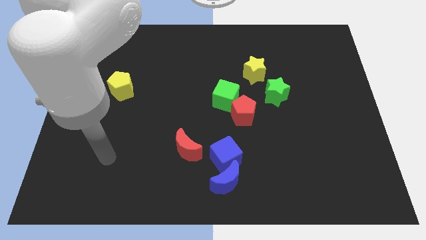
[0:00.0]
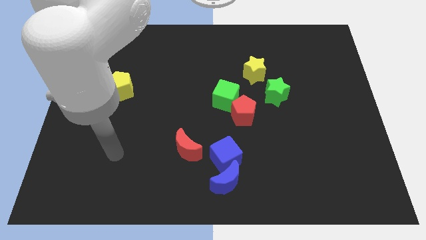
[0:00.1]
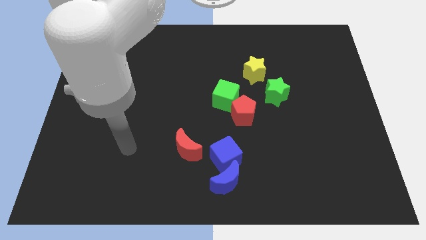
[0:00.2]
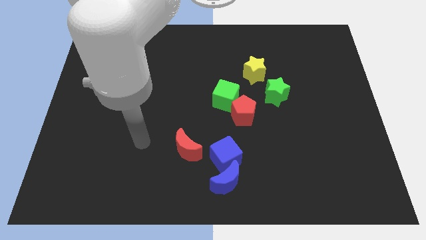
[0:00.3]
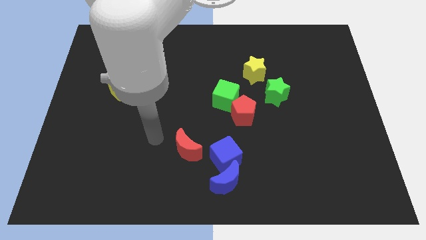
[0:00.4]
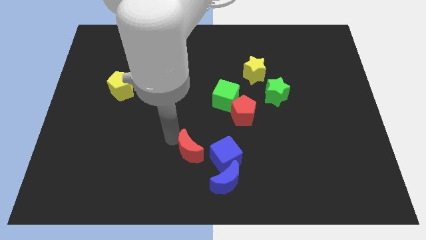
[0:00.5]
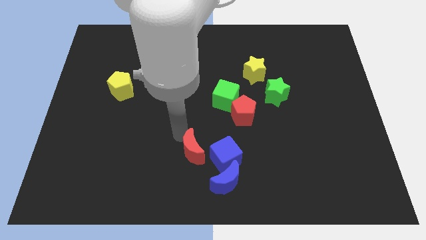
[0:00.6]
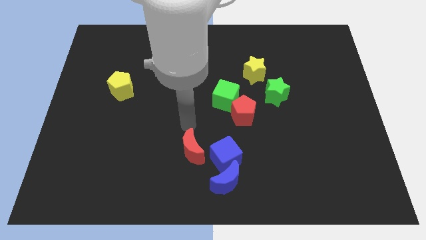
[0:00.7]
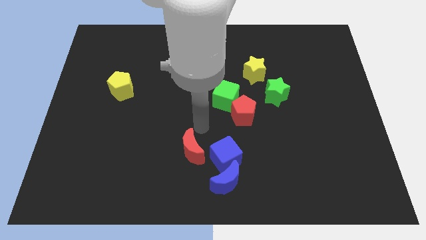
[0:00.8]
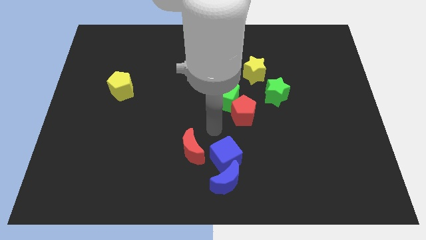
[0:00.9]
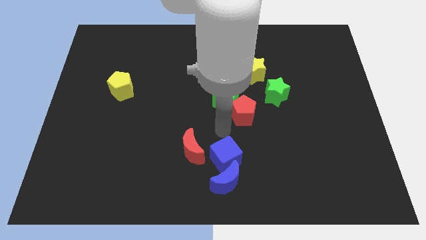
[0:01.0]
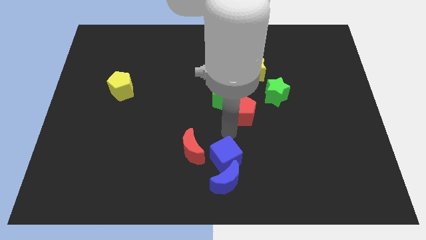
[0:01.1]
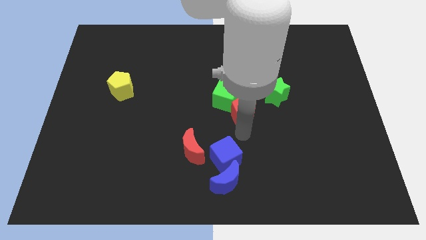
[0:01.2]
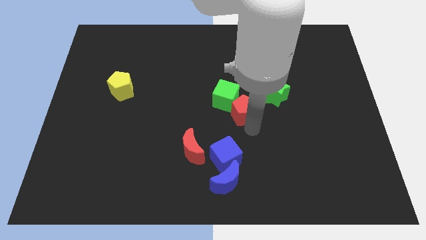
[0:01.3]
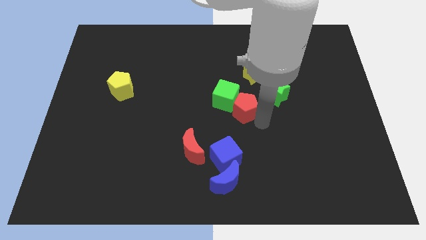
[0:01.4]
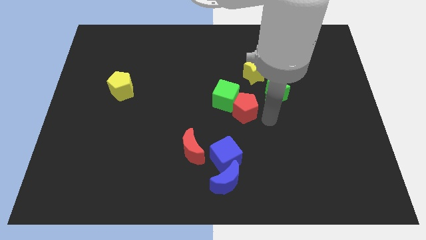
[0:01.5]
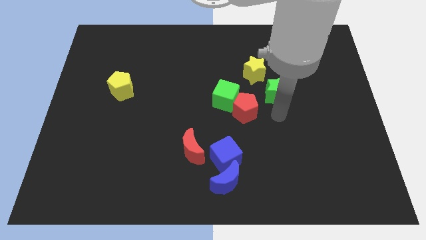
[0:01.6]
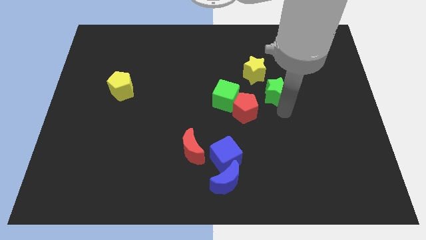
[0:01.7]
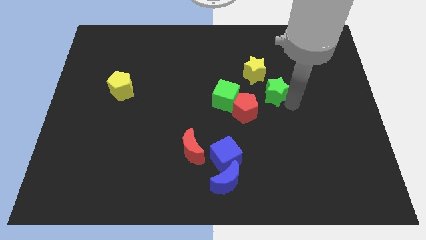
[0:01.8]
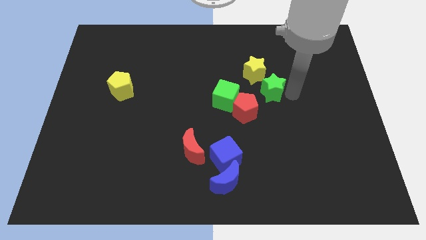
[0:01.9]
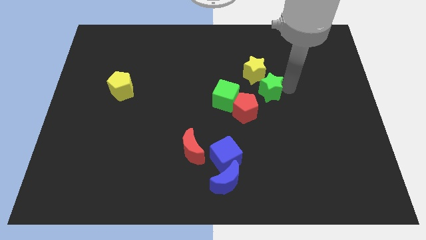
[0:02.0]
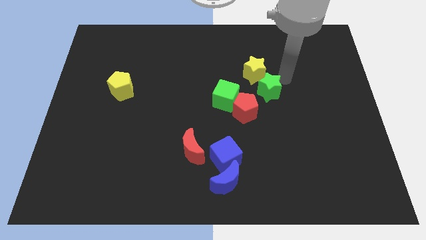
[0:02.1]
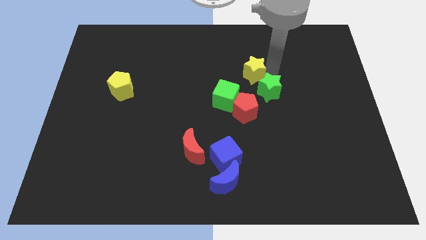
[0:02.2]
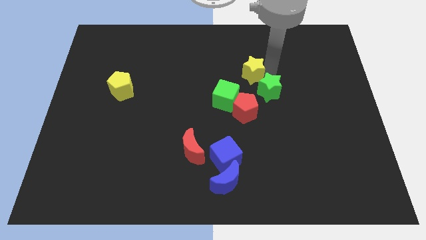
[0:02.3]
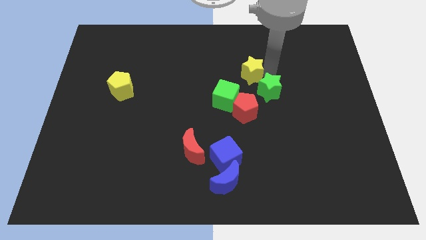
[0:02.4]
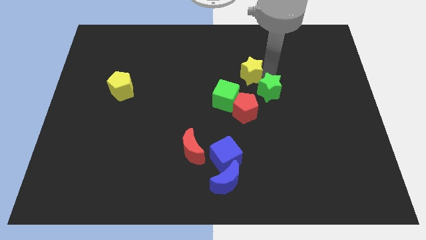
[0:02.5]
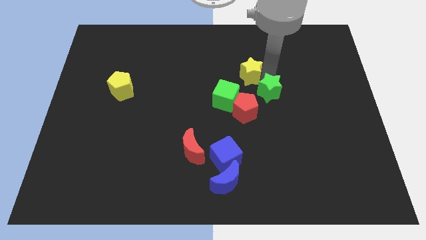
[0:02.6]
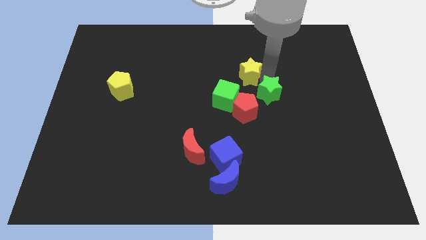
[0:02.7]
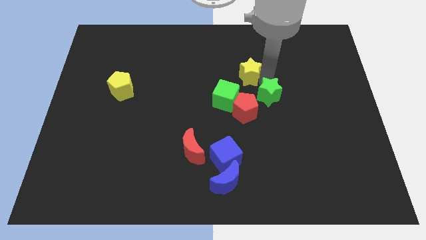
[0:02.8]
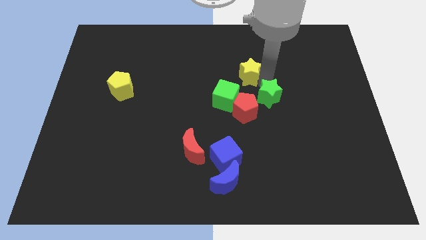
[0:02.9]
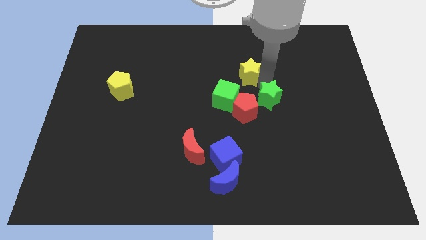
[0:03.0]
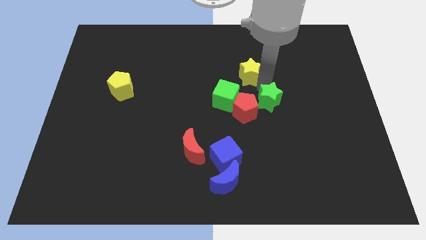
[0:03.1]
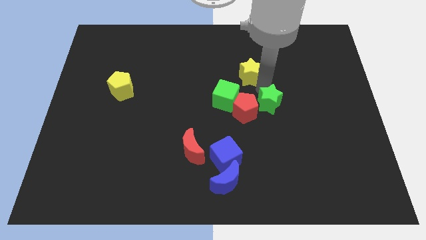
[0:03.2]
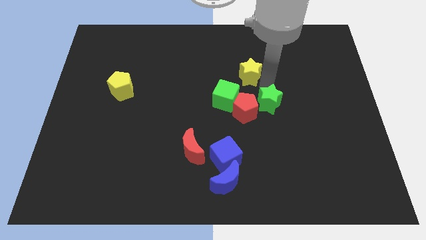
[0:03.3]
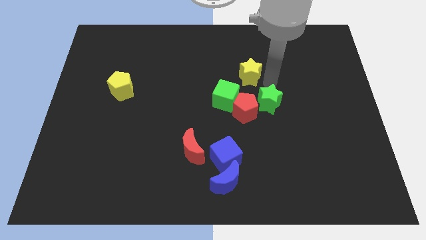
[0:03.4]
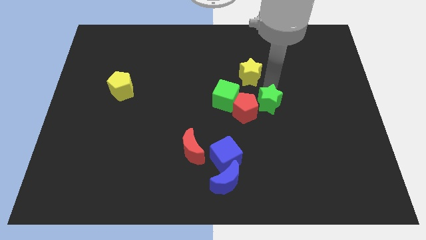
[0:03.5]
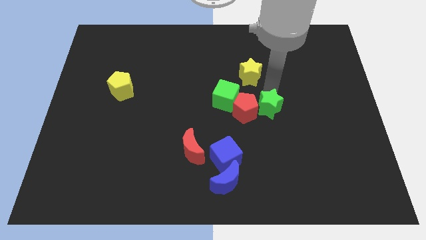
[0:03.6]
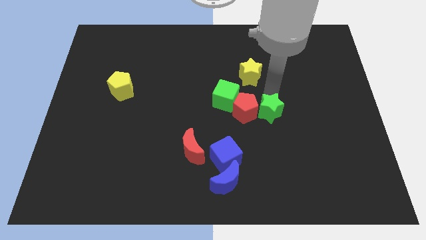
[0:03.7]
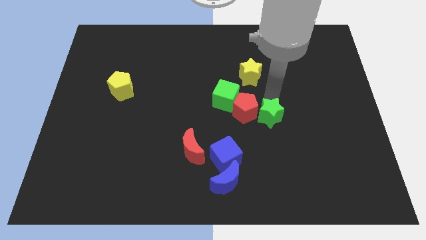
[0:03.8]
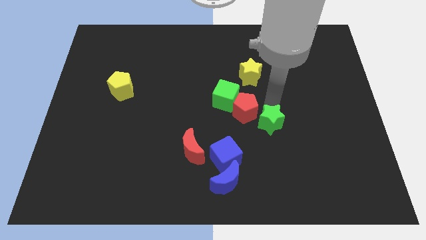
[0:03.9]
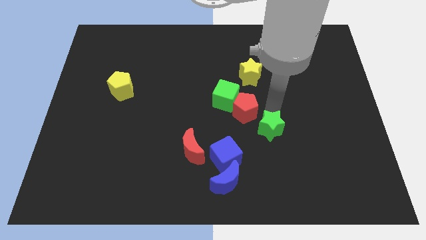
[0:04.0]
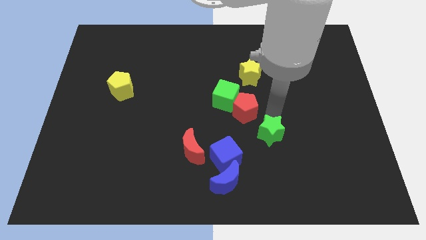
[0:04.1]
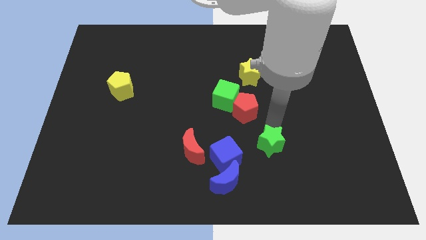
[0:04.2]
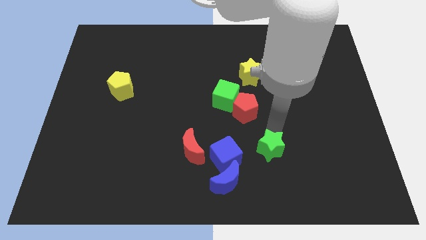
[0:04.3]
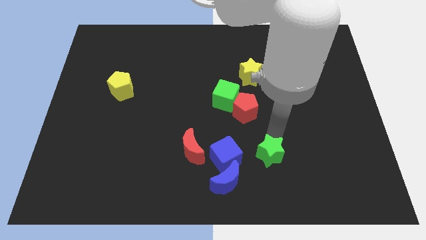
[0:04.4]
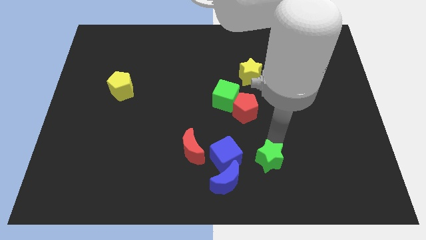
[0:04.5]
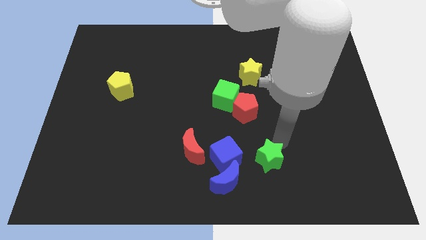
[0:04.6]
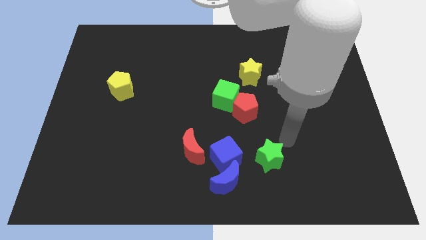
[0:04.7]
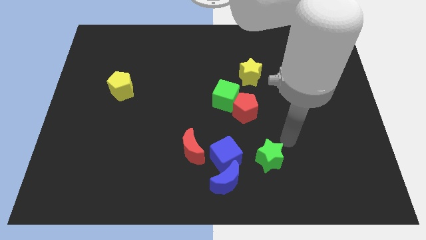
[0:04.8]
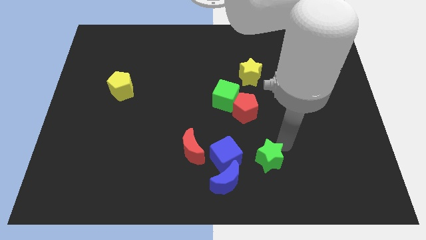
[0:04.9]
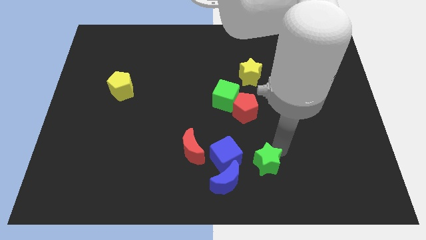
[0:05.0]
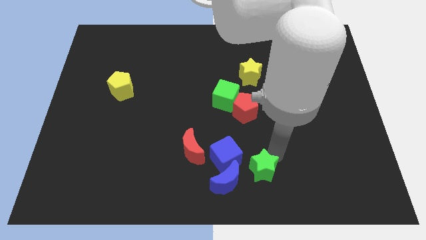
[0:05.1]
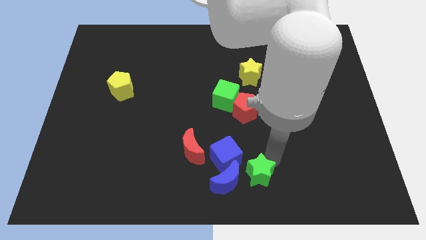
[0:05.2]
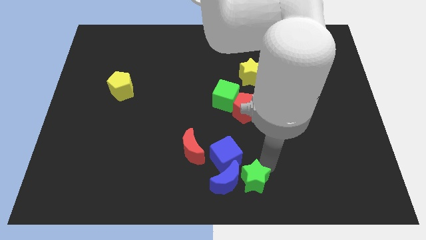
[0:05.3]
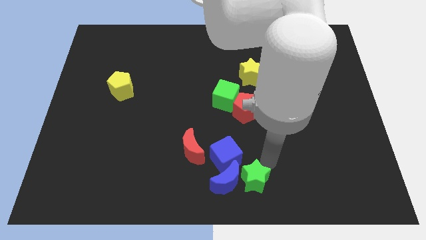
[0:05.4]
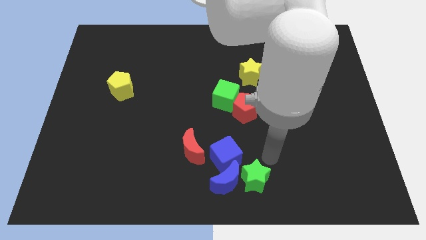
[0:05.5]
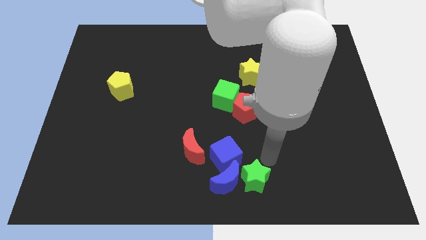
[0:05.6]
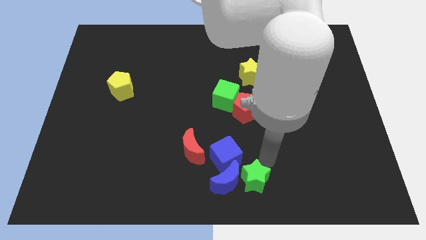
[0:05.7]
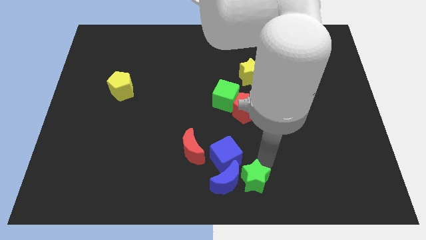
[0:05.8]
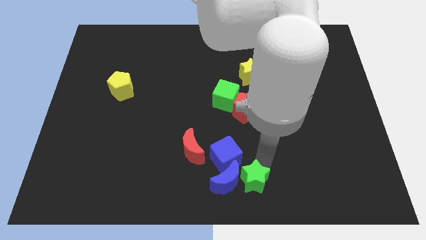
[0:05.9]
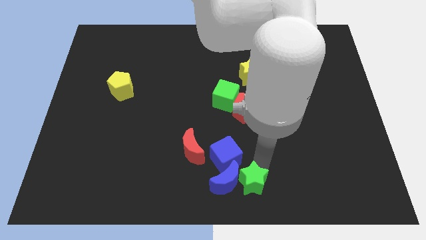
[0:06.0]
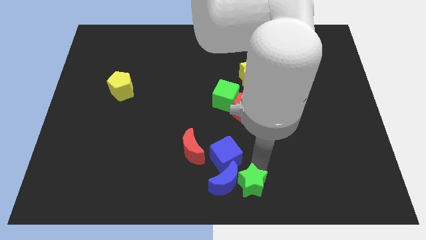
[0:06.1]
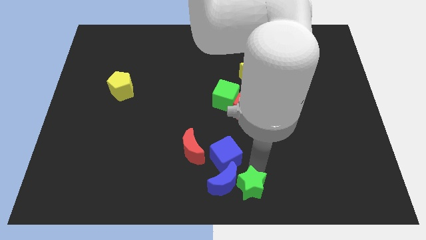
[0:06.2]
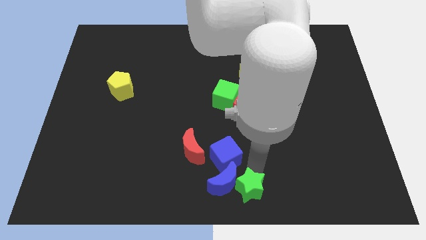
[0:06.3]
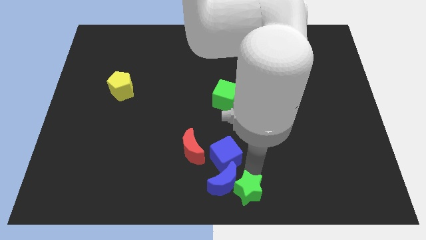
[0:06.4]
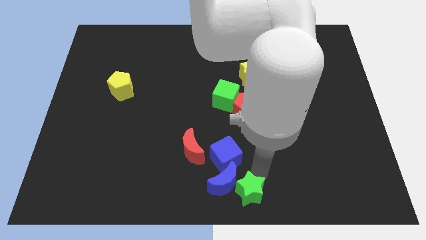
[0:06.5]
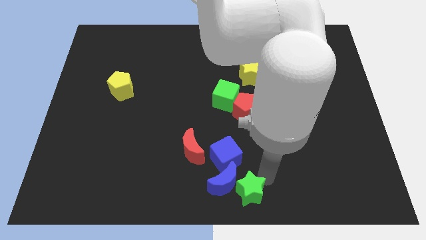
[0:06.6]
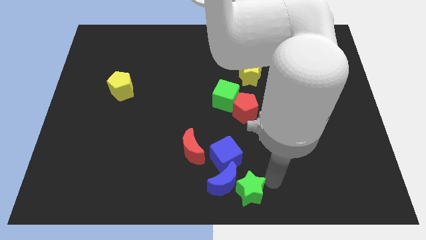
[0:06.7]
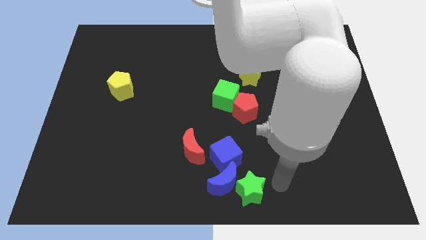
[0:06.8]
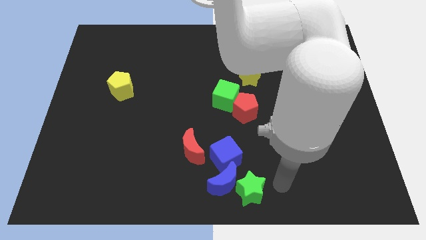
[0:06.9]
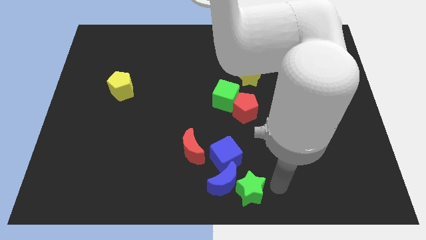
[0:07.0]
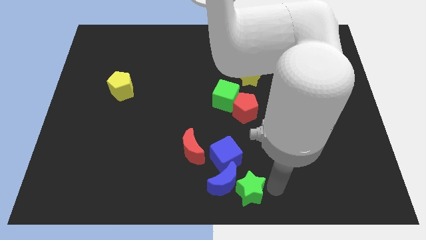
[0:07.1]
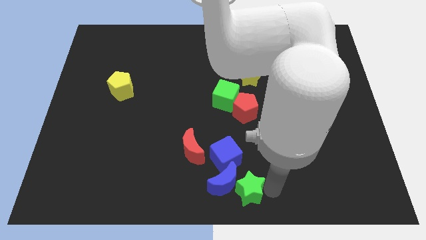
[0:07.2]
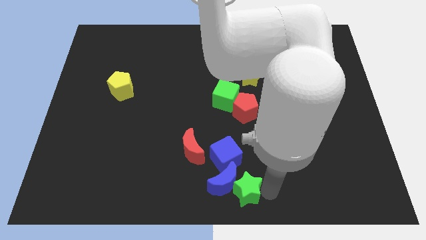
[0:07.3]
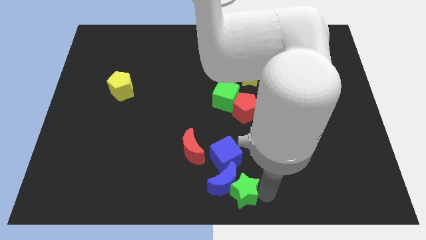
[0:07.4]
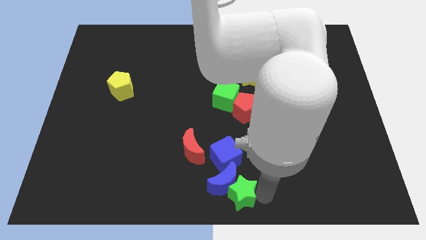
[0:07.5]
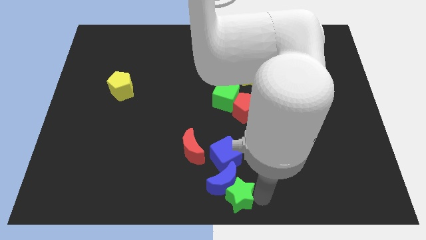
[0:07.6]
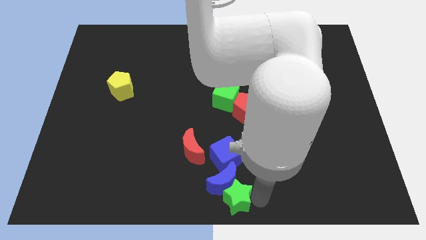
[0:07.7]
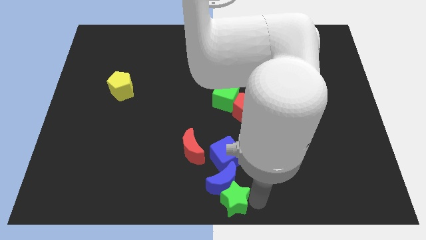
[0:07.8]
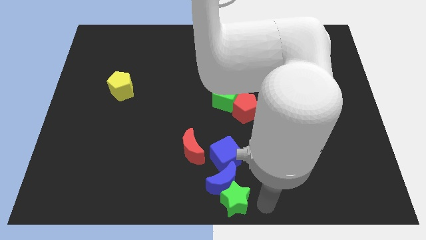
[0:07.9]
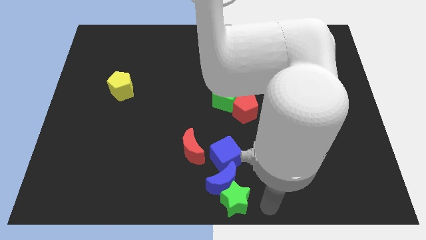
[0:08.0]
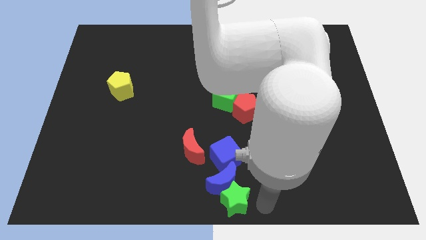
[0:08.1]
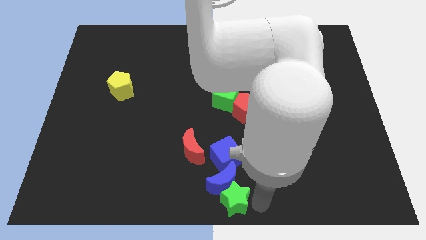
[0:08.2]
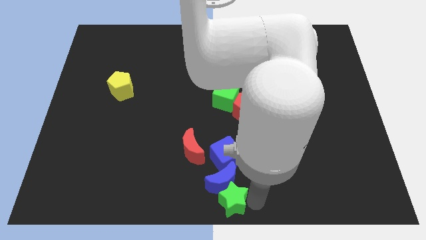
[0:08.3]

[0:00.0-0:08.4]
push the green star down and left diagonally
